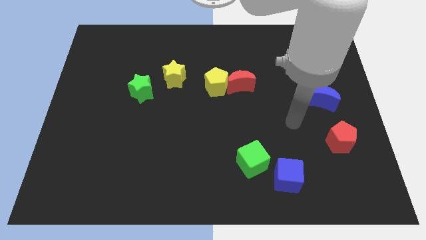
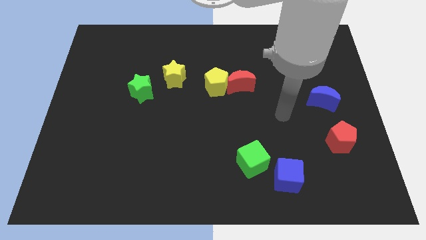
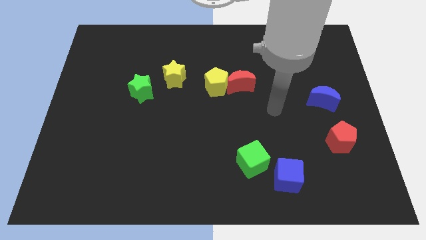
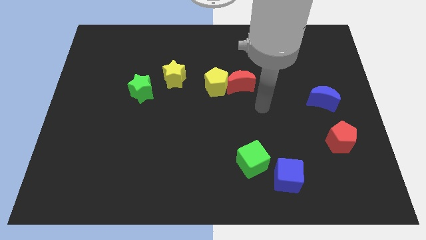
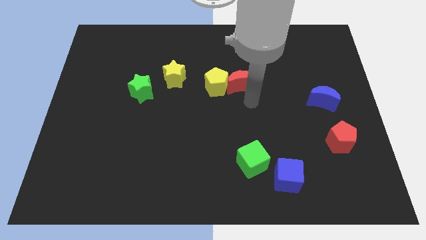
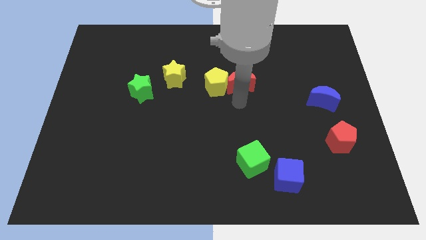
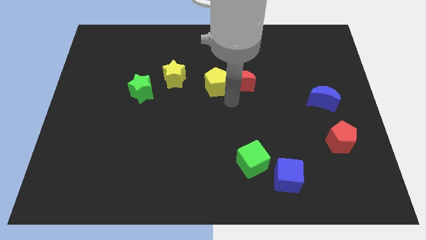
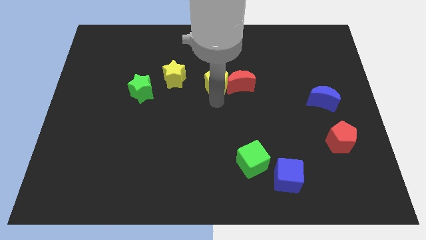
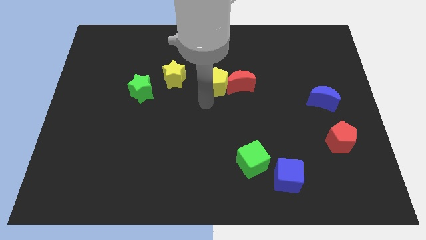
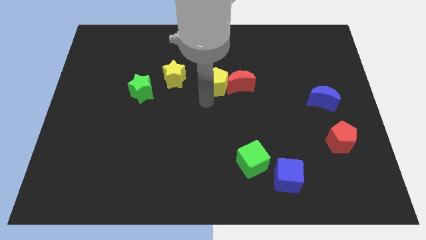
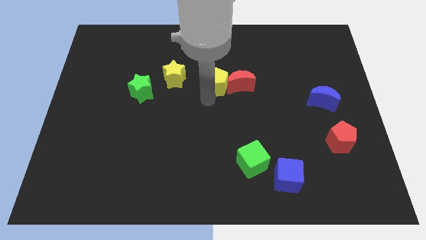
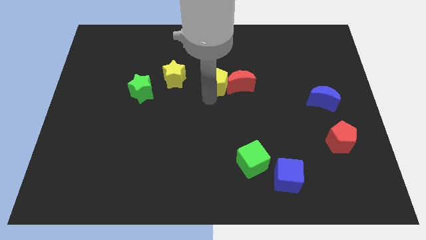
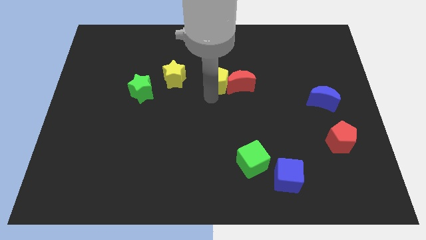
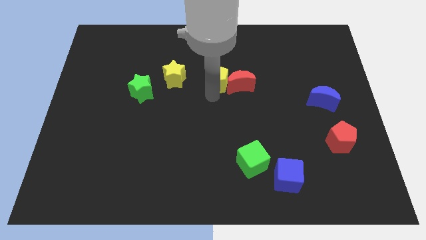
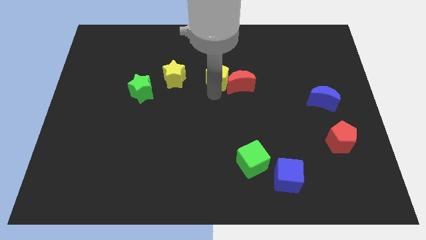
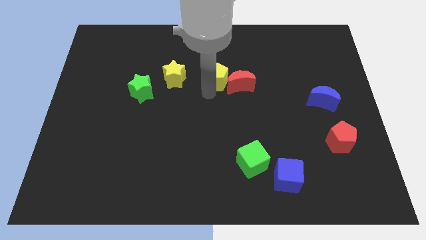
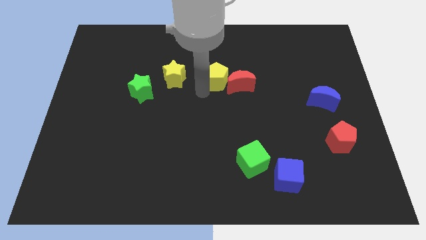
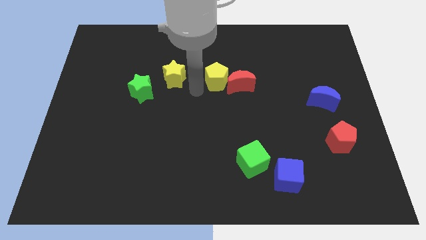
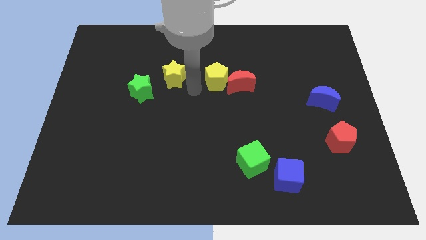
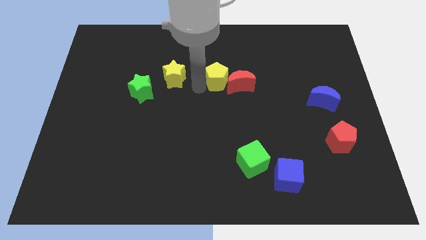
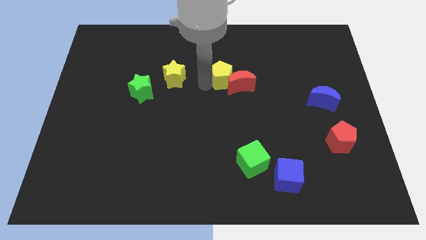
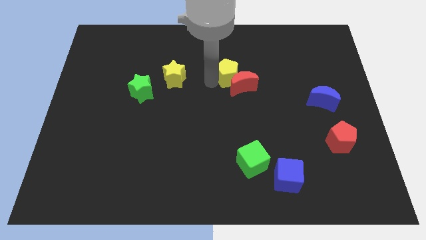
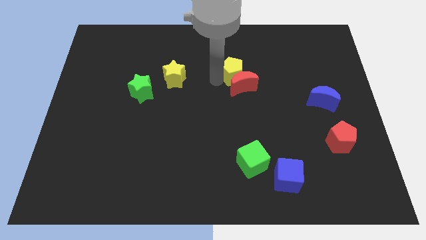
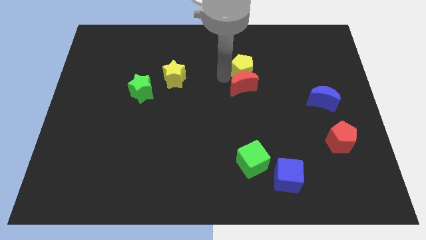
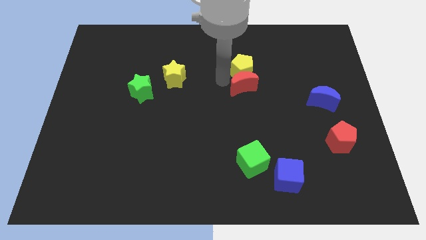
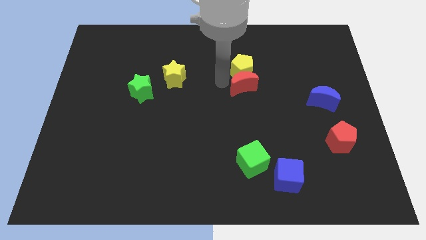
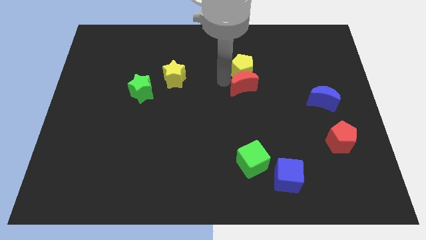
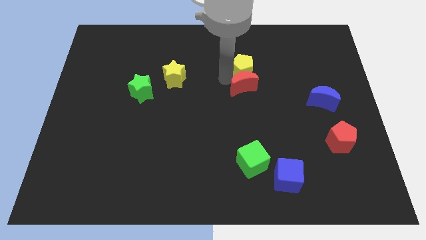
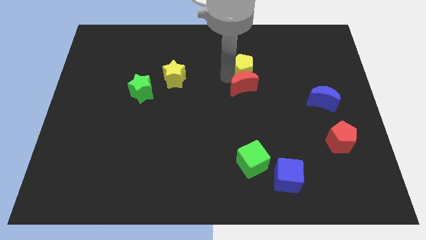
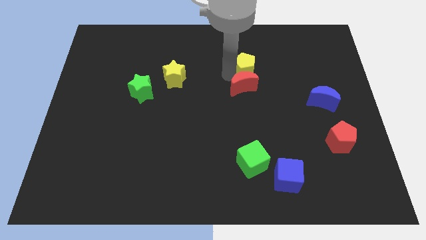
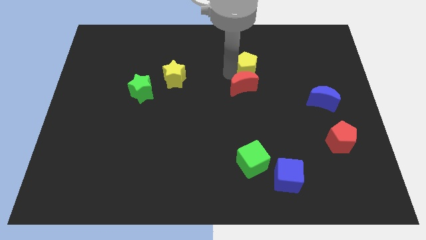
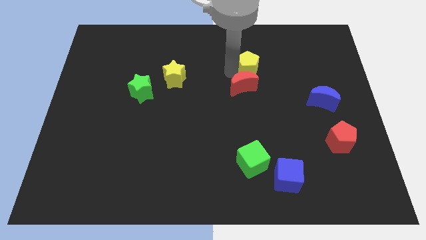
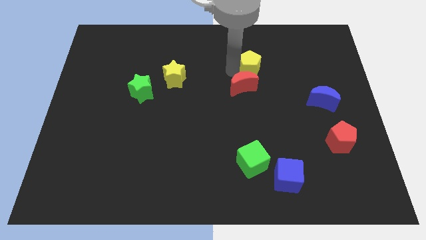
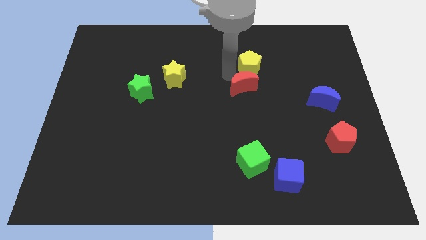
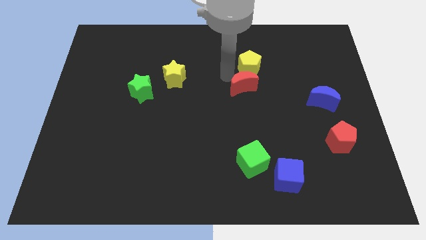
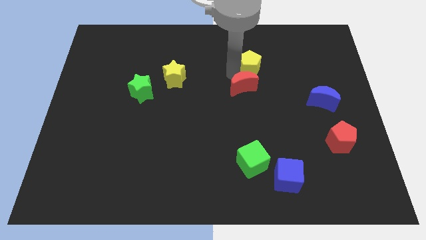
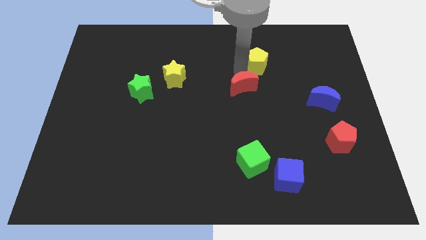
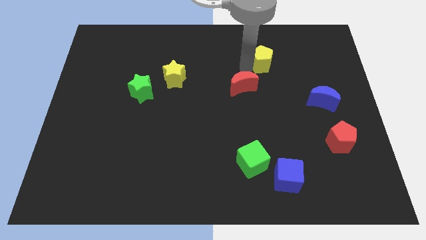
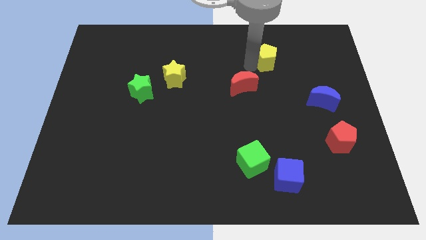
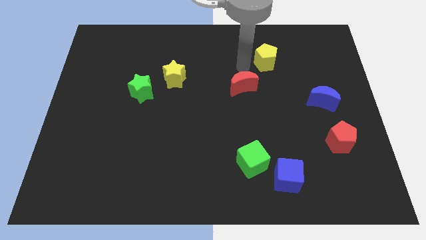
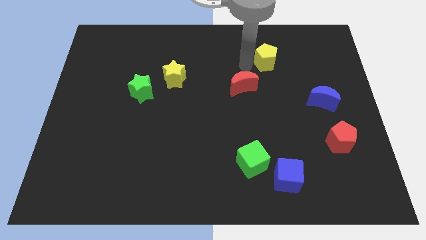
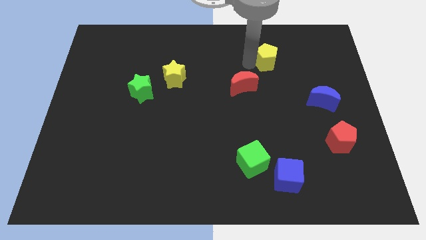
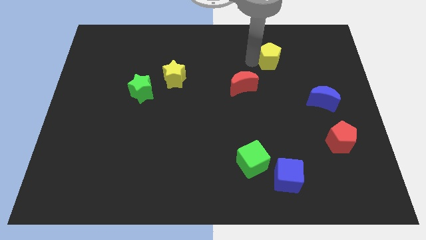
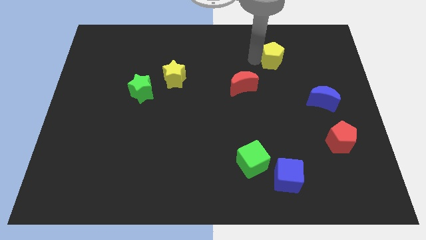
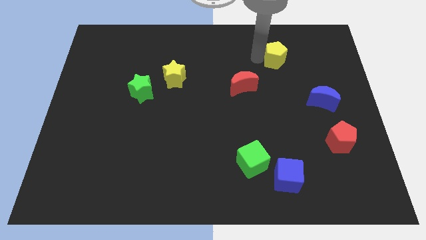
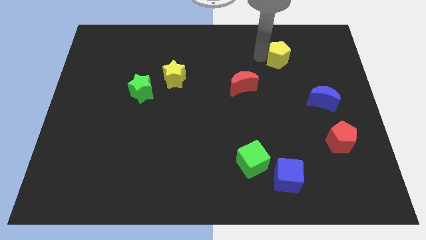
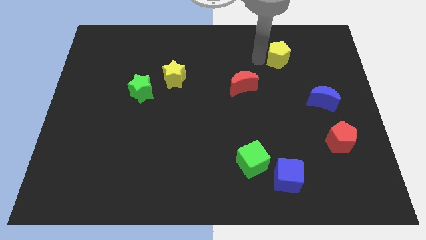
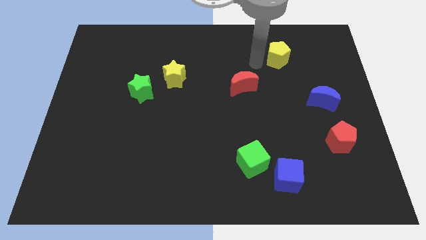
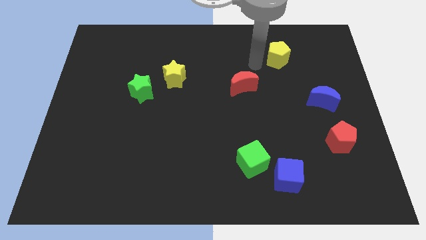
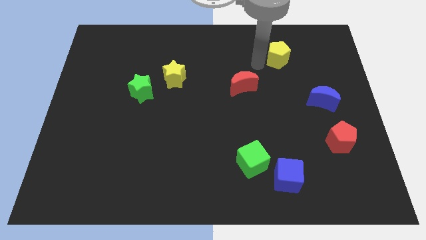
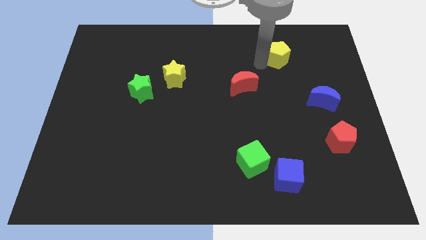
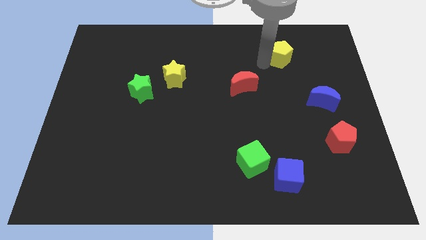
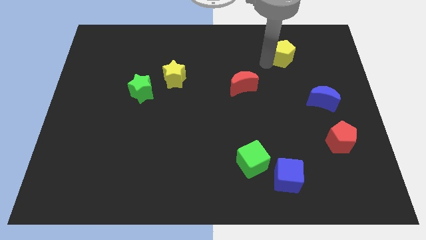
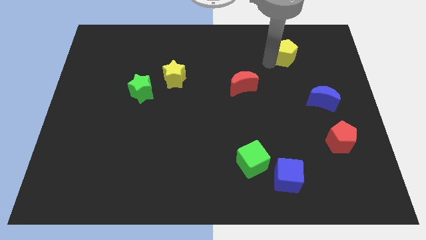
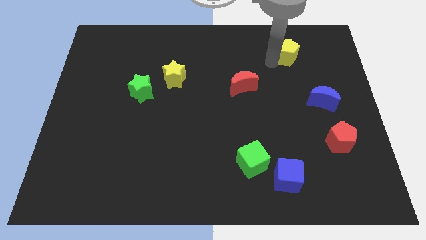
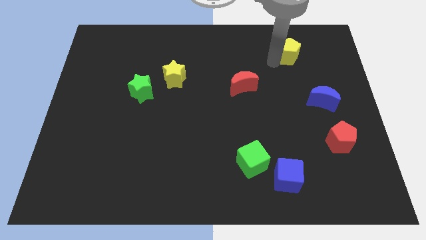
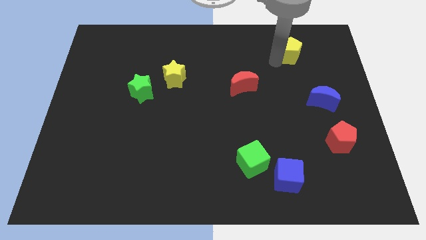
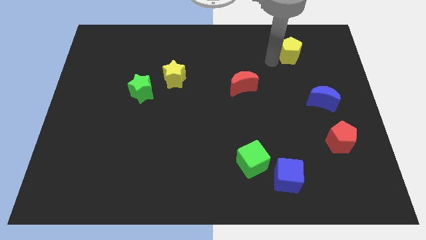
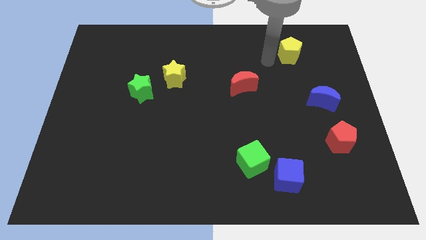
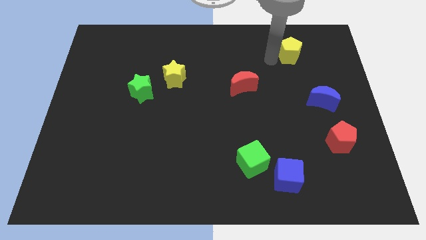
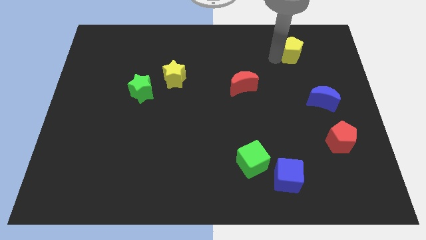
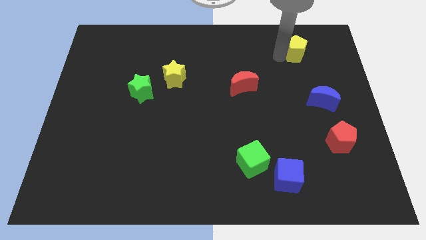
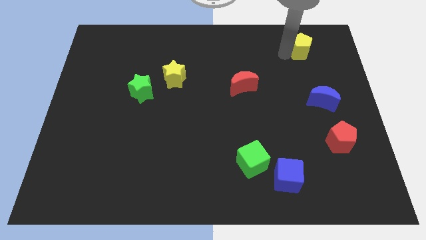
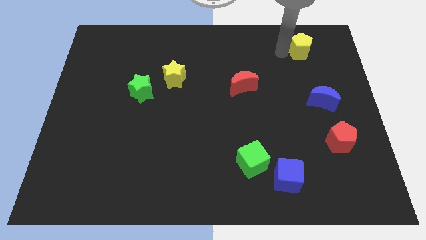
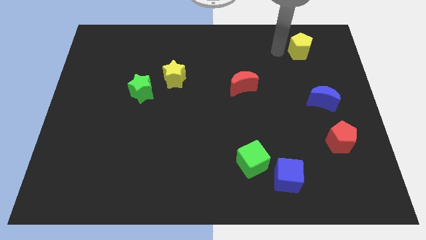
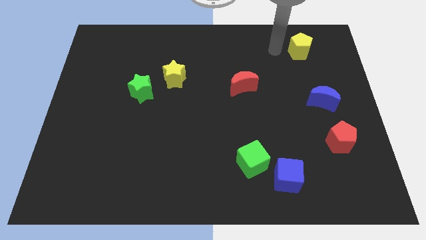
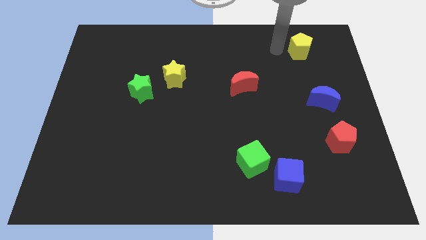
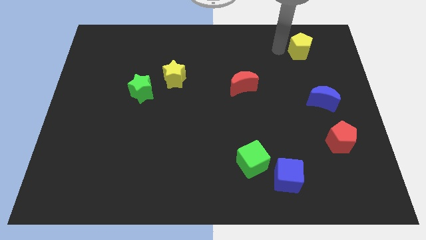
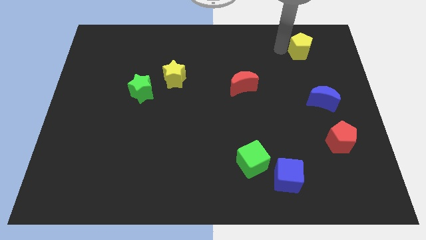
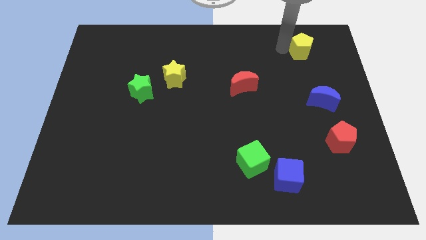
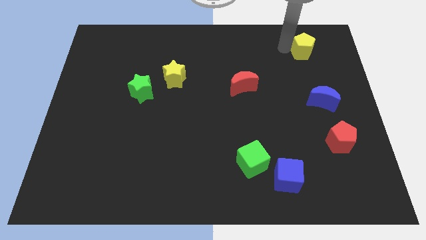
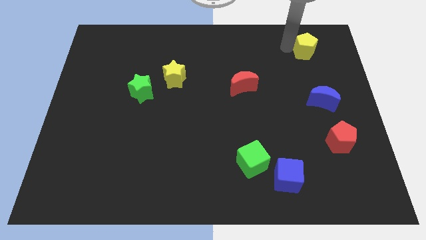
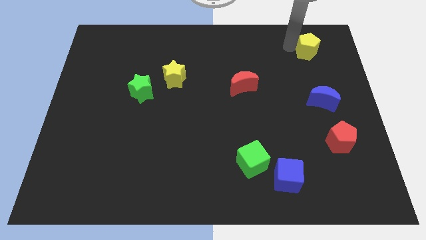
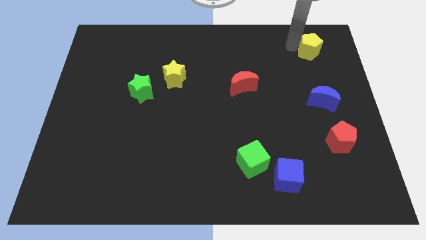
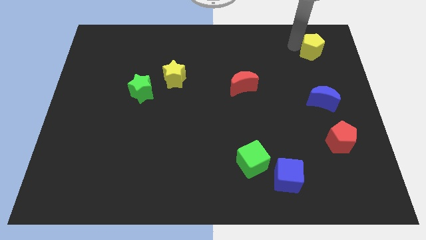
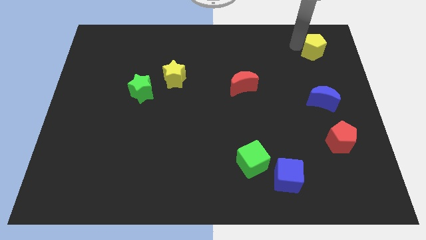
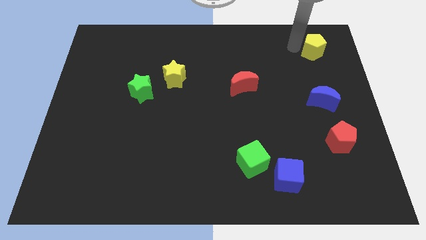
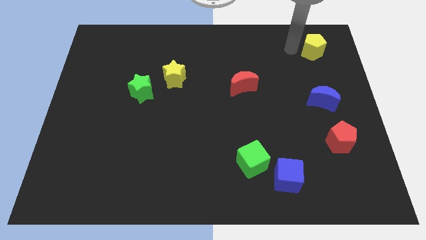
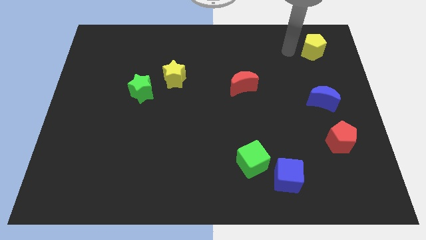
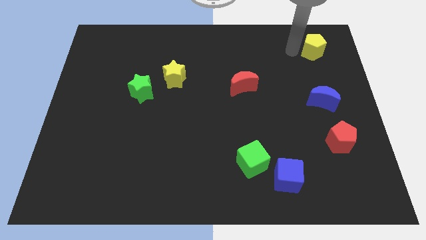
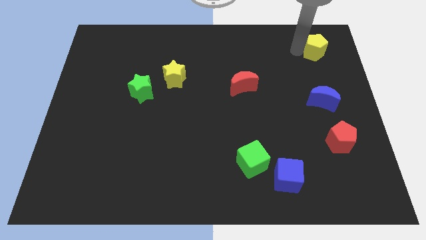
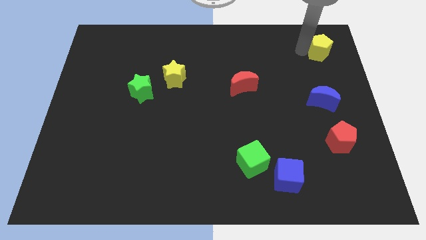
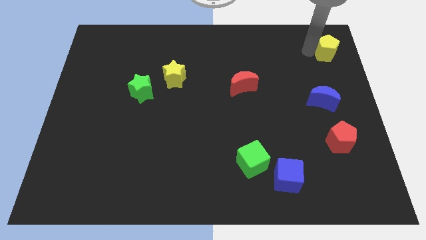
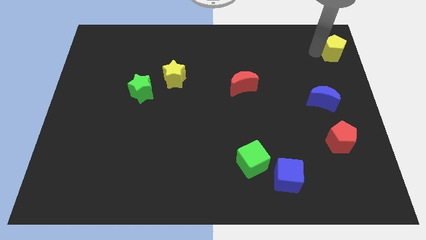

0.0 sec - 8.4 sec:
move the yellow pentagon to the top right
